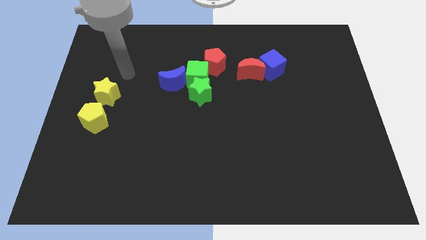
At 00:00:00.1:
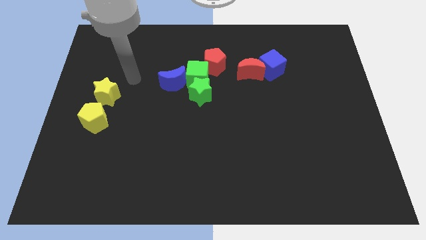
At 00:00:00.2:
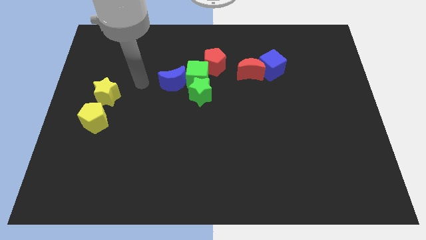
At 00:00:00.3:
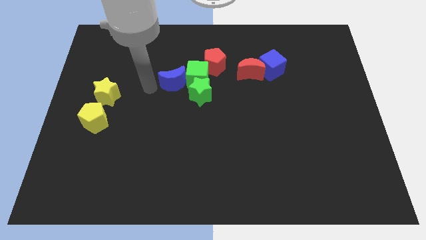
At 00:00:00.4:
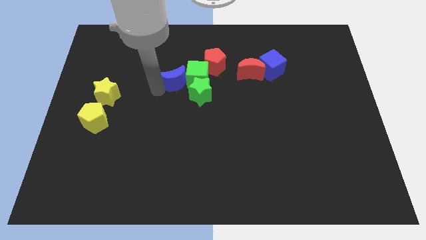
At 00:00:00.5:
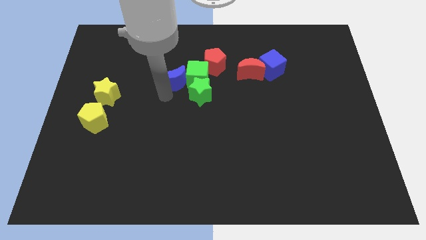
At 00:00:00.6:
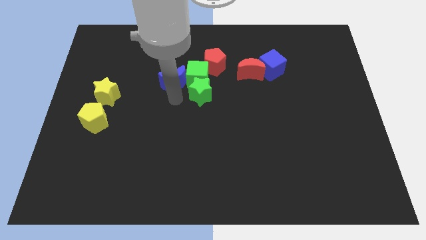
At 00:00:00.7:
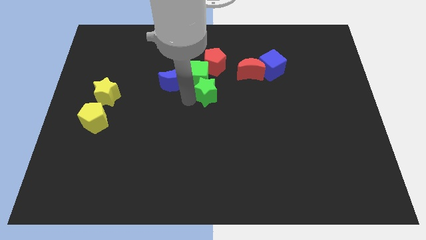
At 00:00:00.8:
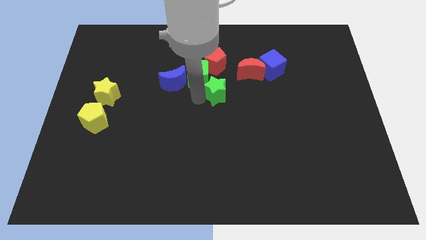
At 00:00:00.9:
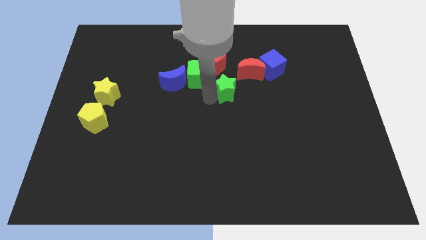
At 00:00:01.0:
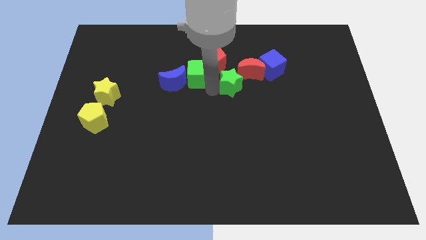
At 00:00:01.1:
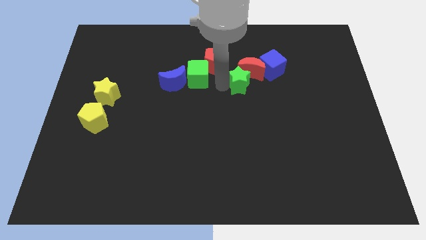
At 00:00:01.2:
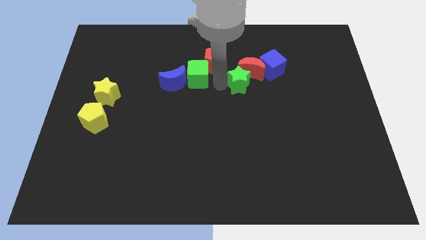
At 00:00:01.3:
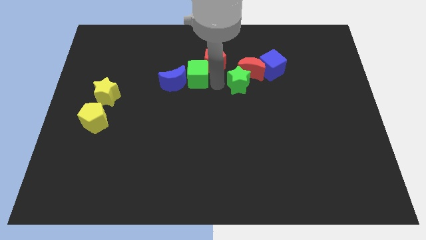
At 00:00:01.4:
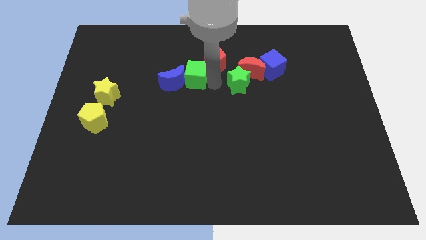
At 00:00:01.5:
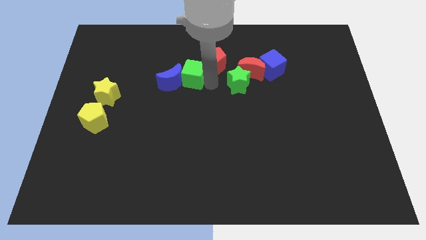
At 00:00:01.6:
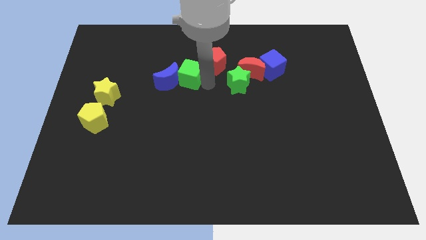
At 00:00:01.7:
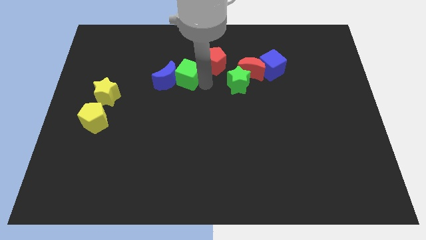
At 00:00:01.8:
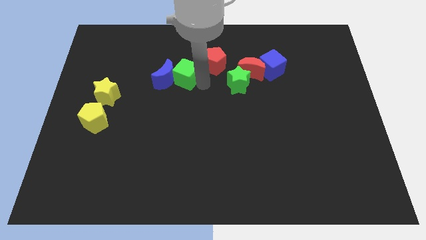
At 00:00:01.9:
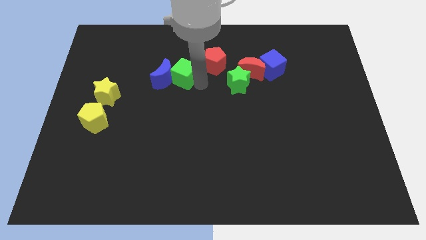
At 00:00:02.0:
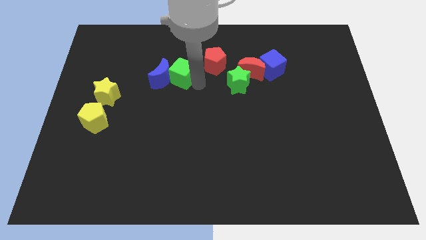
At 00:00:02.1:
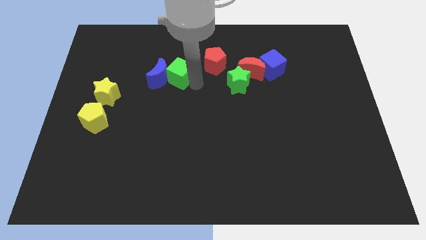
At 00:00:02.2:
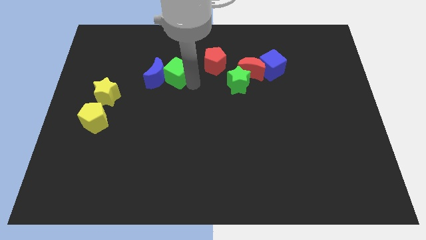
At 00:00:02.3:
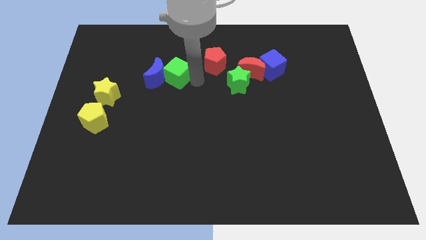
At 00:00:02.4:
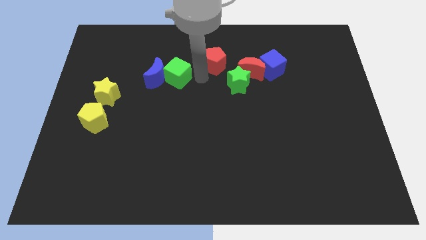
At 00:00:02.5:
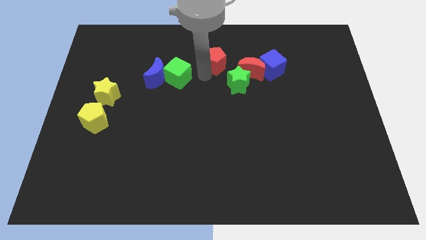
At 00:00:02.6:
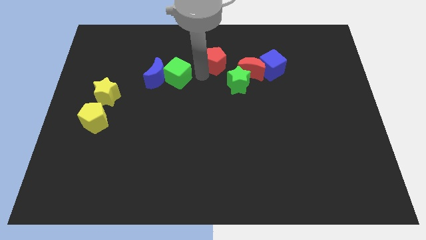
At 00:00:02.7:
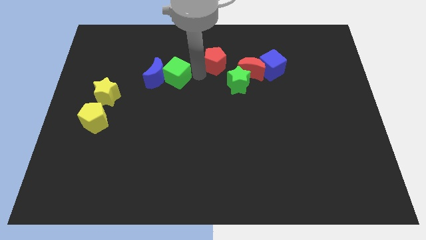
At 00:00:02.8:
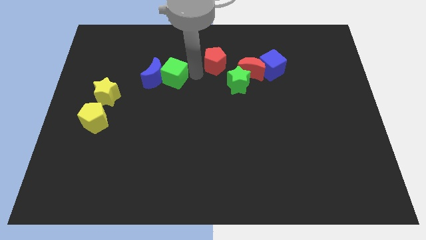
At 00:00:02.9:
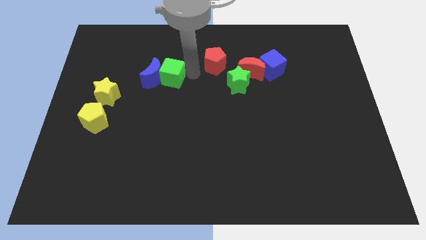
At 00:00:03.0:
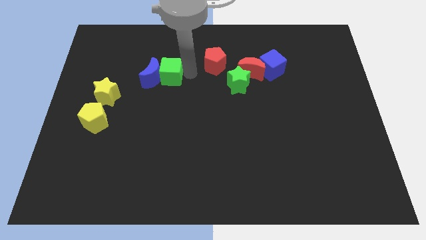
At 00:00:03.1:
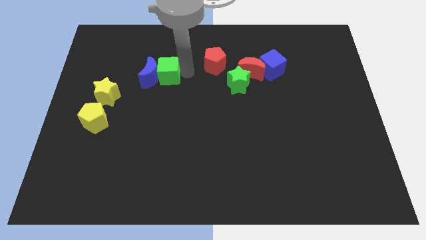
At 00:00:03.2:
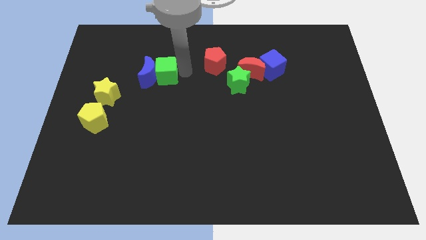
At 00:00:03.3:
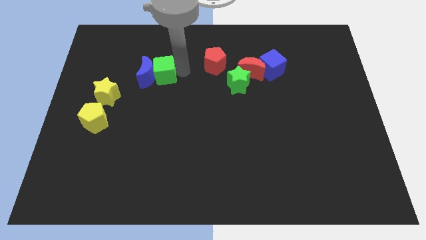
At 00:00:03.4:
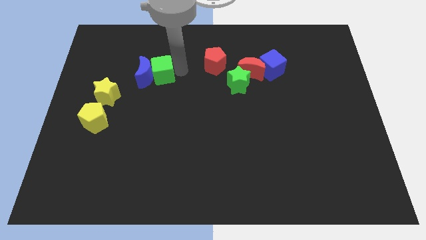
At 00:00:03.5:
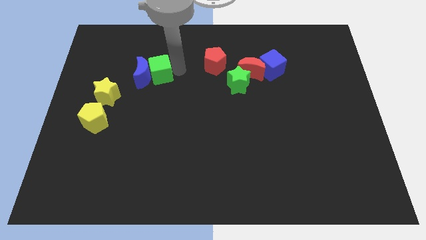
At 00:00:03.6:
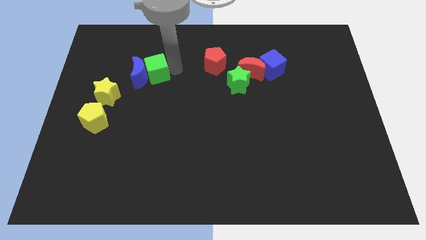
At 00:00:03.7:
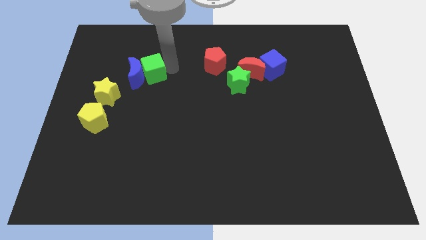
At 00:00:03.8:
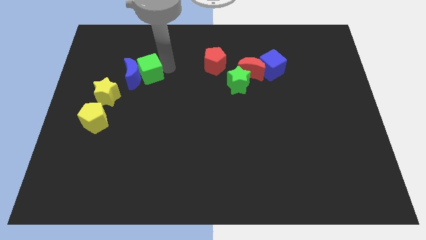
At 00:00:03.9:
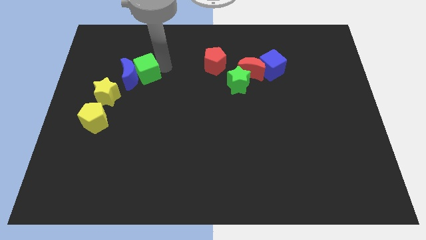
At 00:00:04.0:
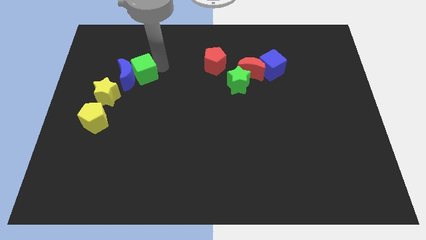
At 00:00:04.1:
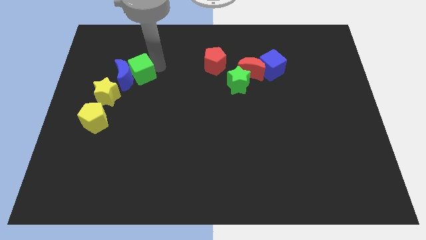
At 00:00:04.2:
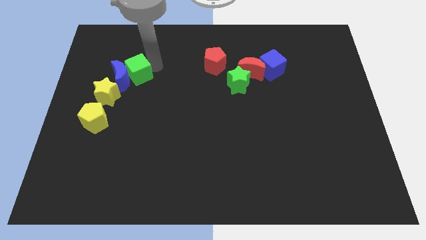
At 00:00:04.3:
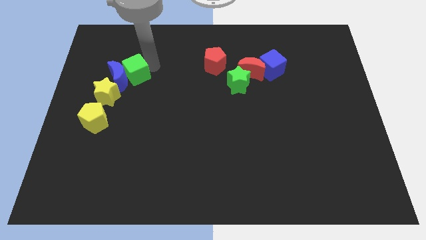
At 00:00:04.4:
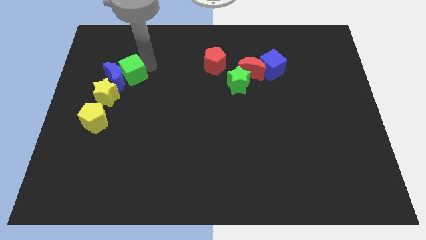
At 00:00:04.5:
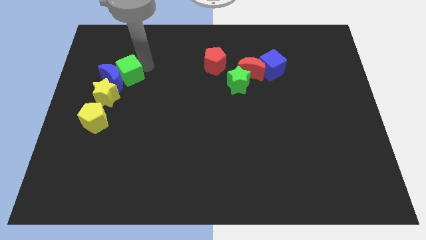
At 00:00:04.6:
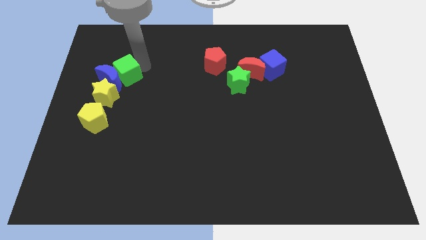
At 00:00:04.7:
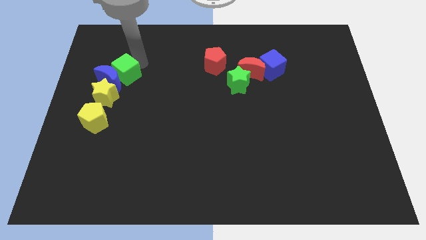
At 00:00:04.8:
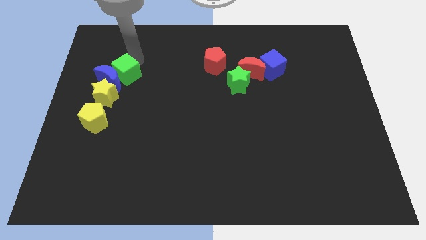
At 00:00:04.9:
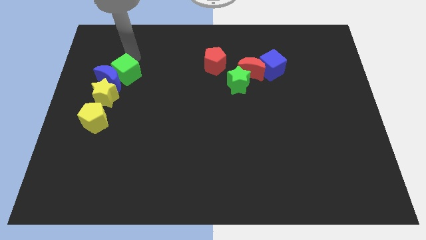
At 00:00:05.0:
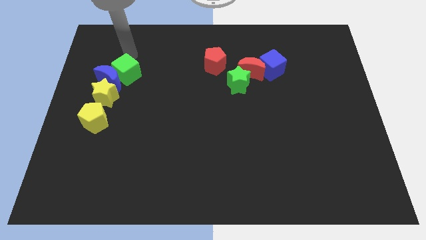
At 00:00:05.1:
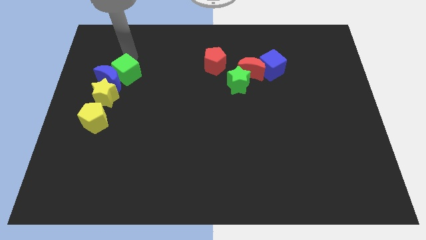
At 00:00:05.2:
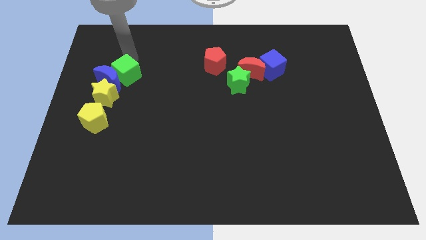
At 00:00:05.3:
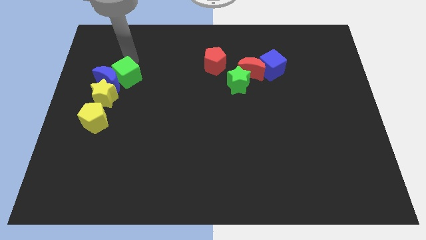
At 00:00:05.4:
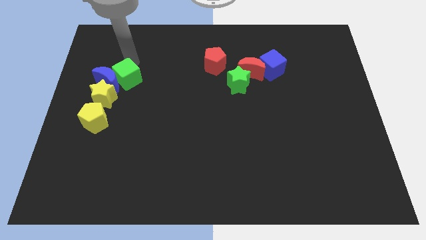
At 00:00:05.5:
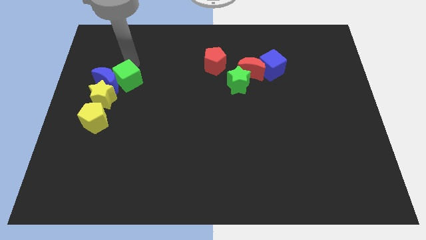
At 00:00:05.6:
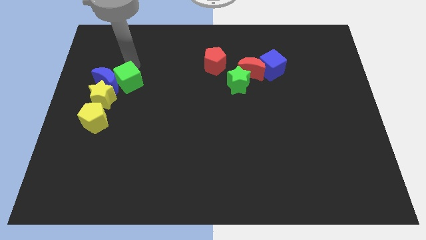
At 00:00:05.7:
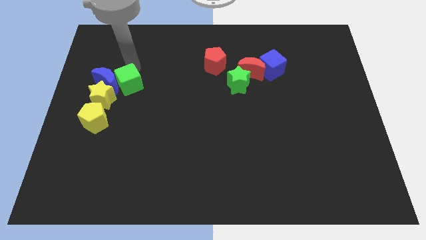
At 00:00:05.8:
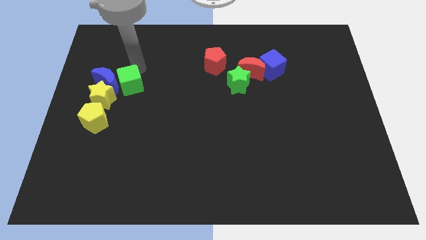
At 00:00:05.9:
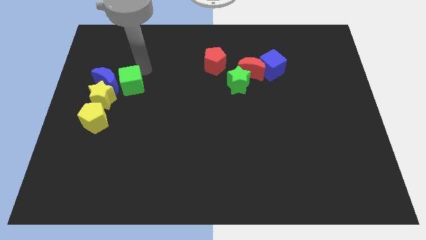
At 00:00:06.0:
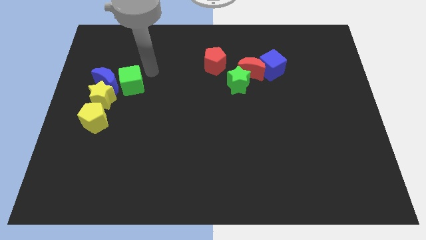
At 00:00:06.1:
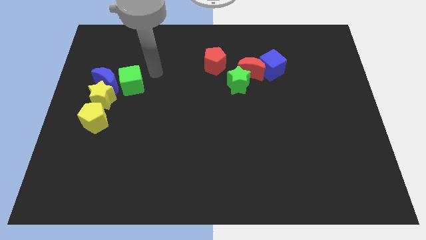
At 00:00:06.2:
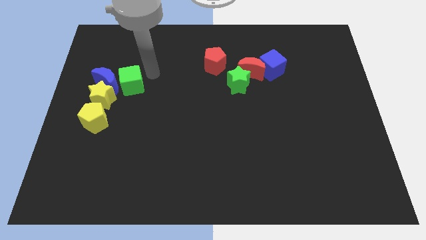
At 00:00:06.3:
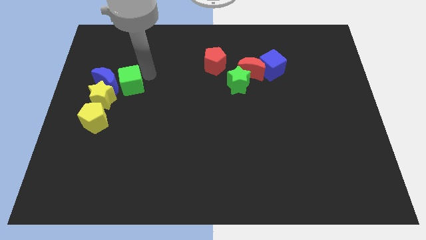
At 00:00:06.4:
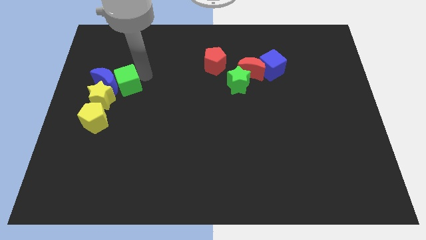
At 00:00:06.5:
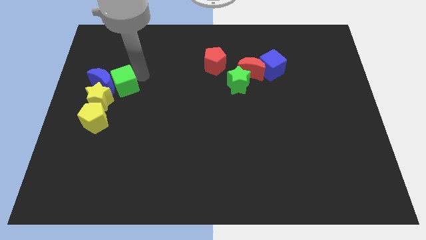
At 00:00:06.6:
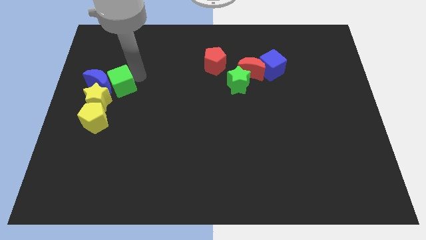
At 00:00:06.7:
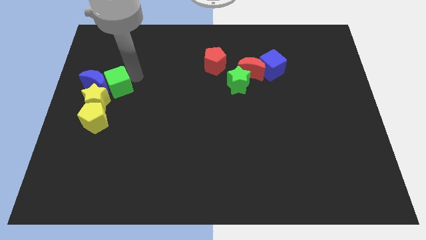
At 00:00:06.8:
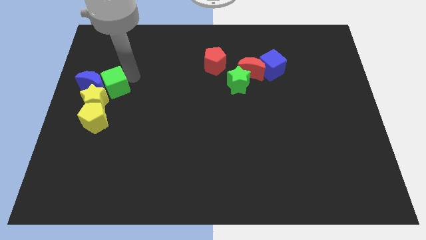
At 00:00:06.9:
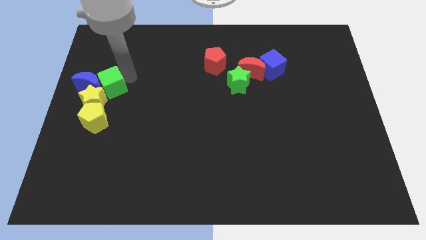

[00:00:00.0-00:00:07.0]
move the green cube towards the yellow star
